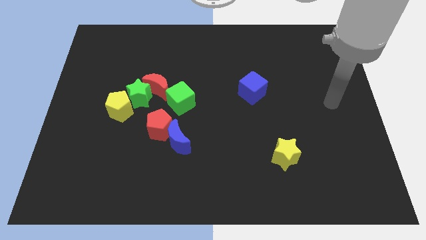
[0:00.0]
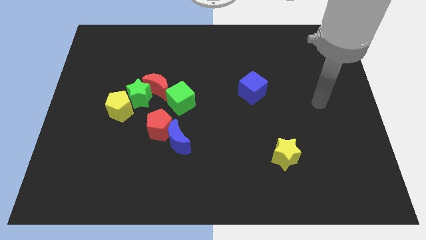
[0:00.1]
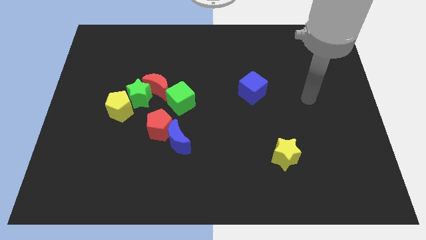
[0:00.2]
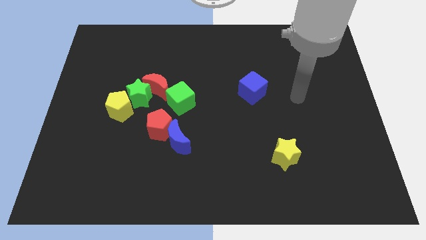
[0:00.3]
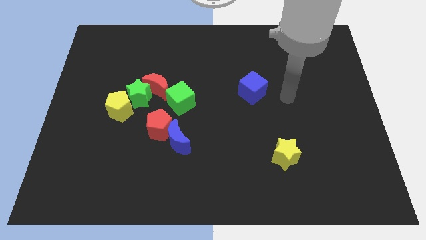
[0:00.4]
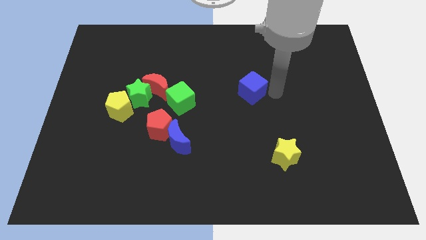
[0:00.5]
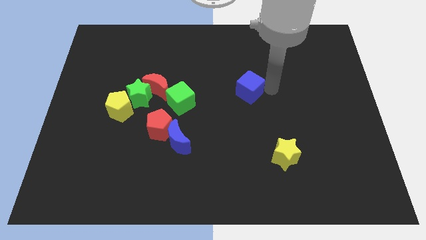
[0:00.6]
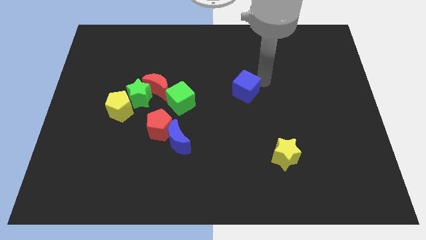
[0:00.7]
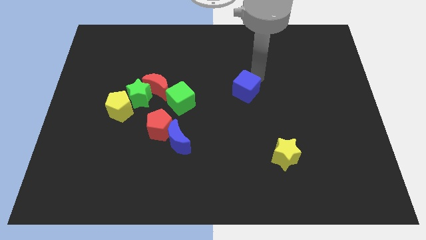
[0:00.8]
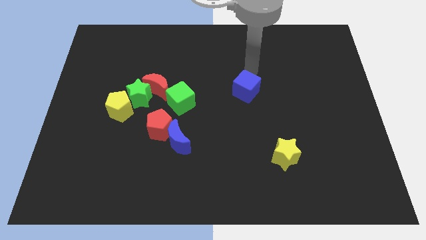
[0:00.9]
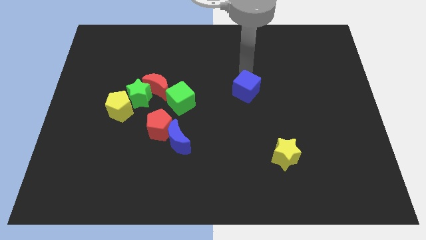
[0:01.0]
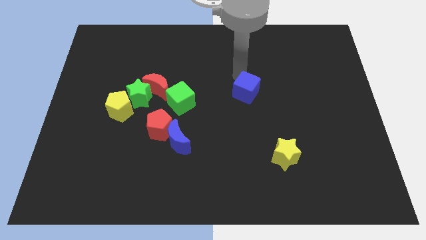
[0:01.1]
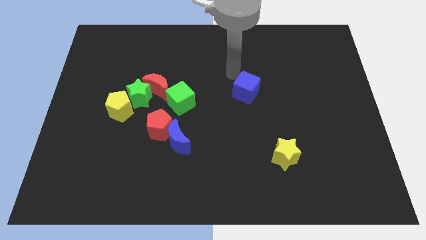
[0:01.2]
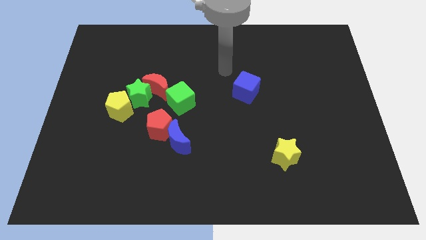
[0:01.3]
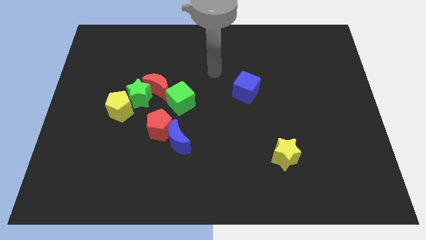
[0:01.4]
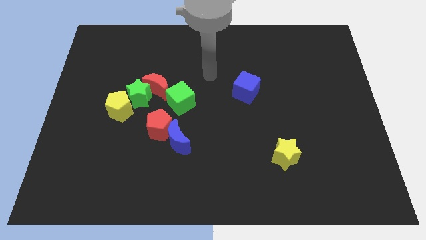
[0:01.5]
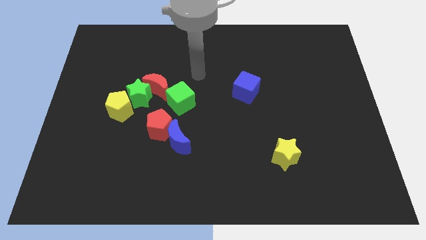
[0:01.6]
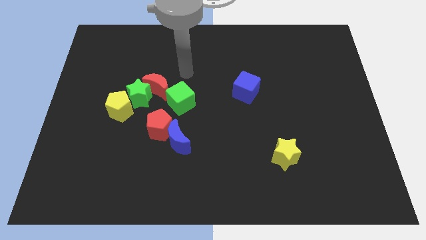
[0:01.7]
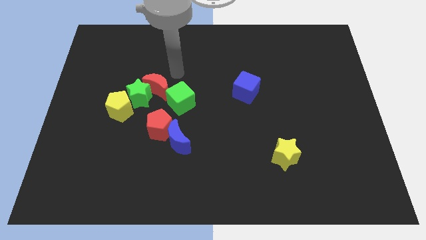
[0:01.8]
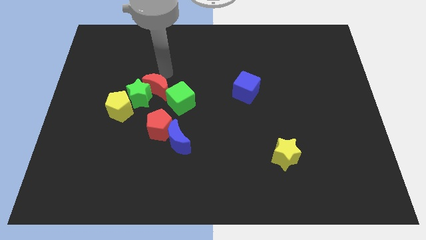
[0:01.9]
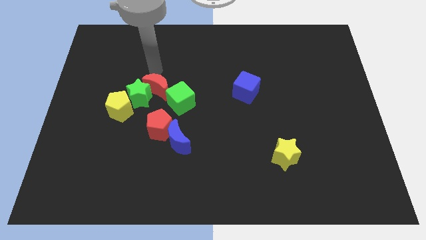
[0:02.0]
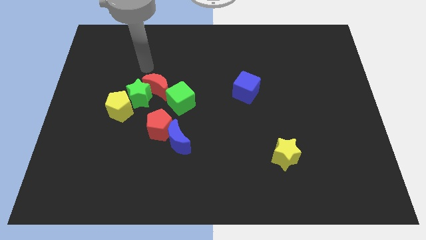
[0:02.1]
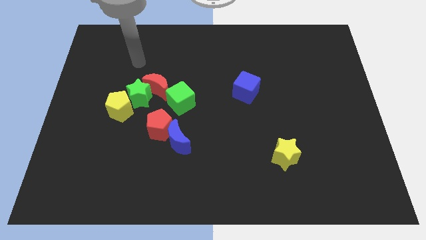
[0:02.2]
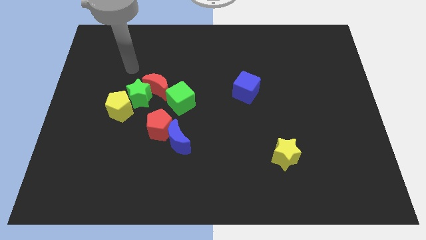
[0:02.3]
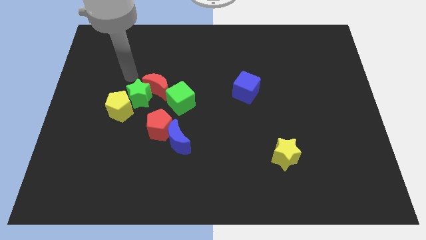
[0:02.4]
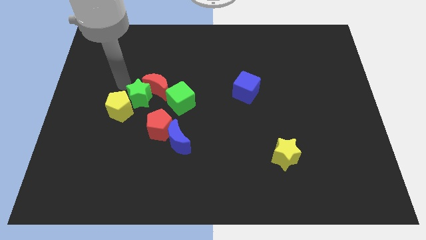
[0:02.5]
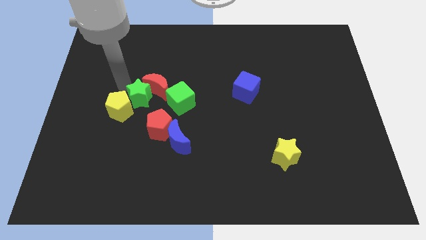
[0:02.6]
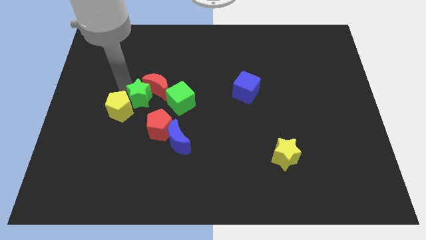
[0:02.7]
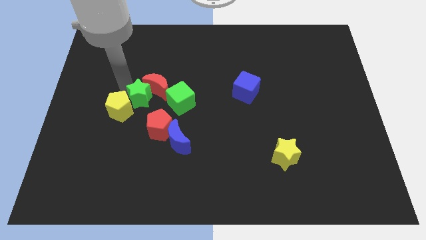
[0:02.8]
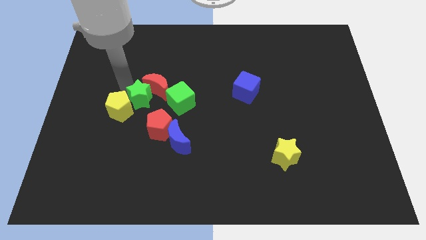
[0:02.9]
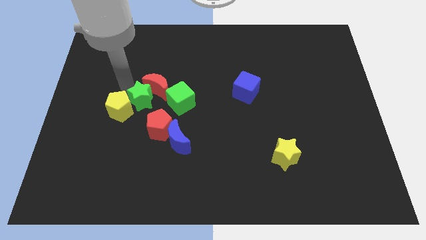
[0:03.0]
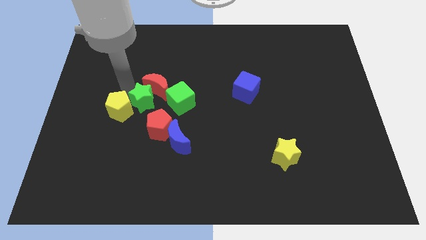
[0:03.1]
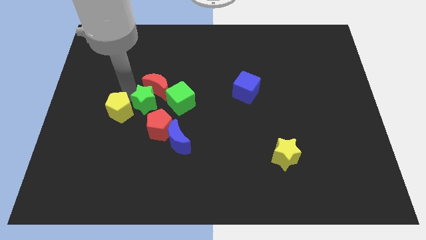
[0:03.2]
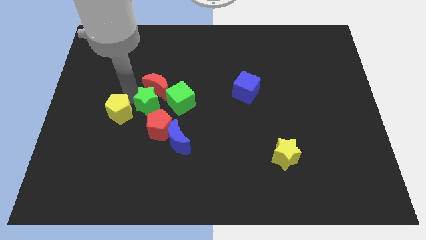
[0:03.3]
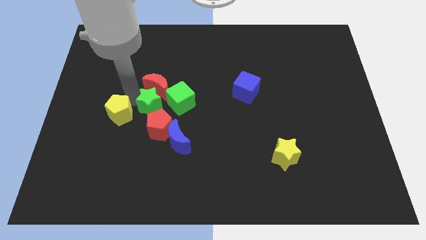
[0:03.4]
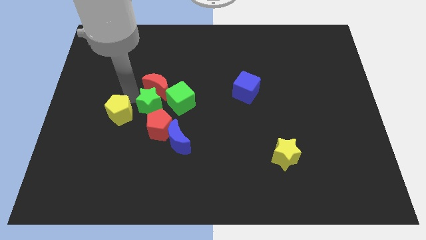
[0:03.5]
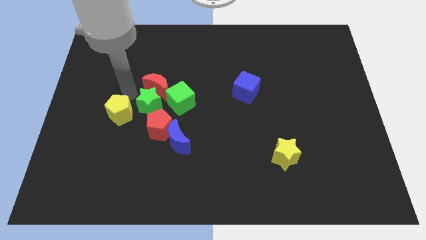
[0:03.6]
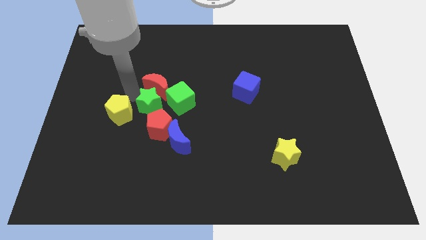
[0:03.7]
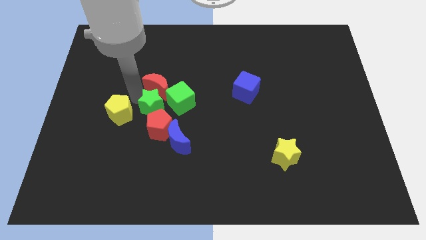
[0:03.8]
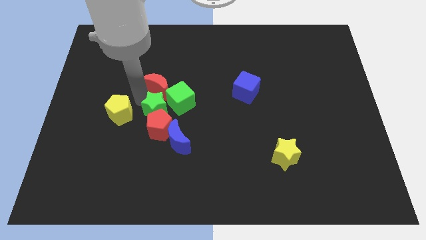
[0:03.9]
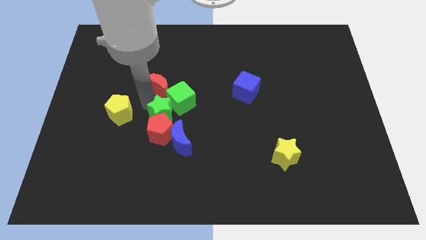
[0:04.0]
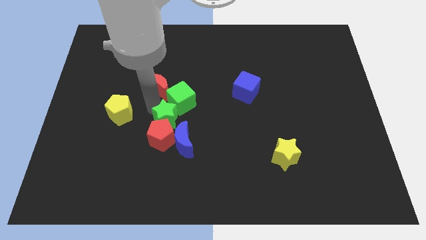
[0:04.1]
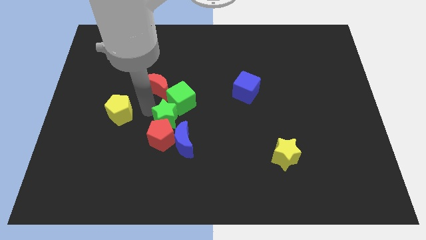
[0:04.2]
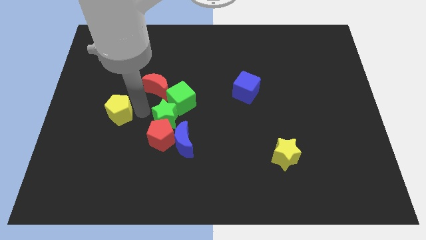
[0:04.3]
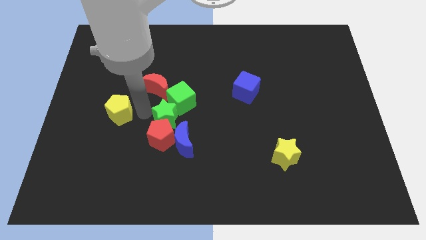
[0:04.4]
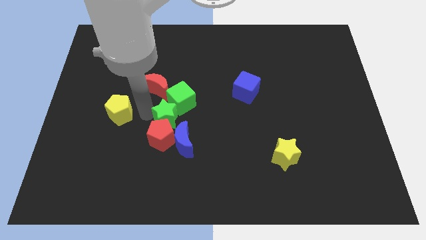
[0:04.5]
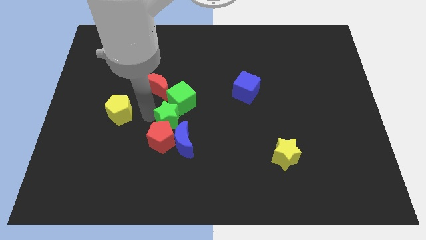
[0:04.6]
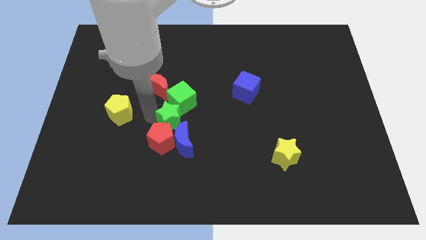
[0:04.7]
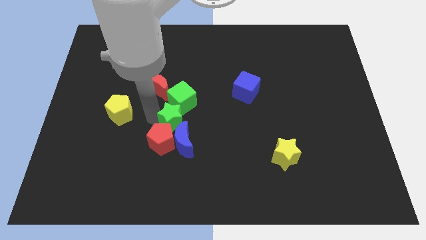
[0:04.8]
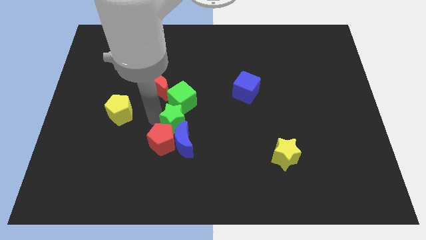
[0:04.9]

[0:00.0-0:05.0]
push the green star close to the blue moon

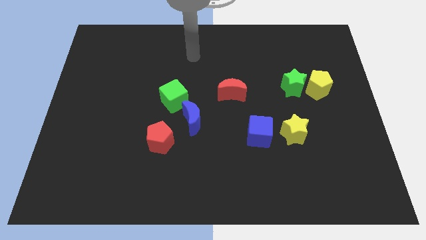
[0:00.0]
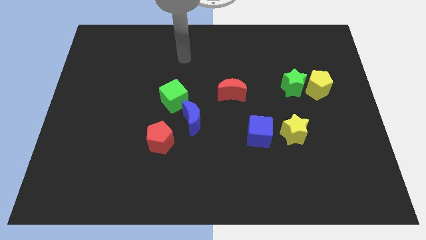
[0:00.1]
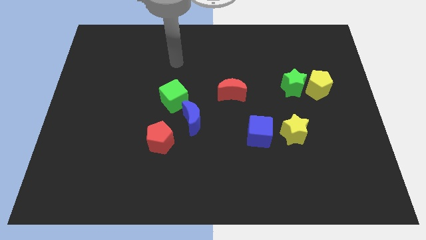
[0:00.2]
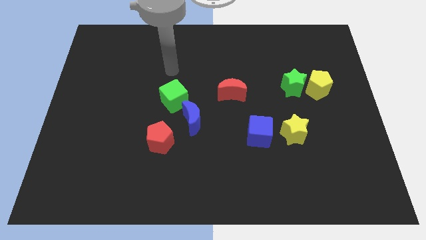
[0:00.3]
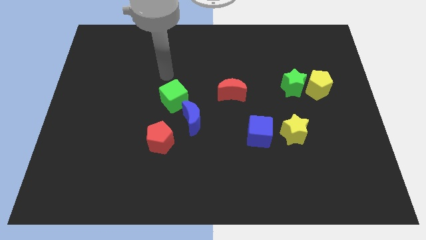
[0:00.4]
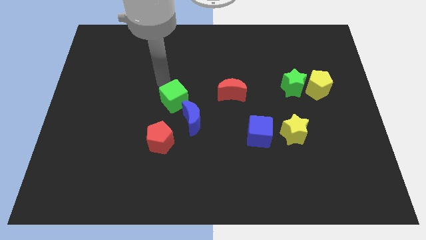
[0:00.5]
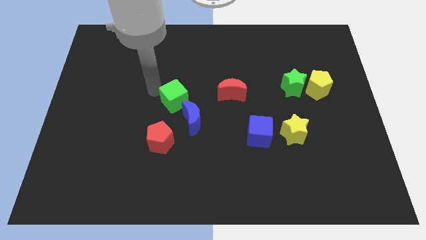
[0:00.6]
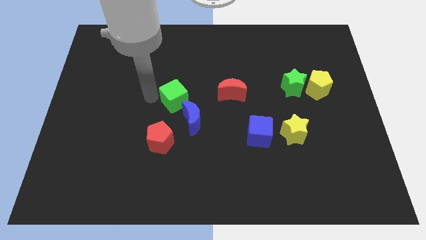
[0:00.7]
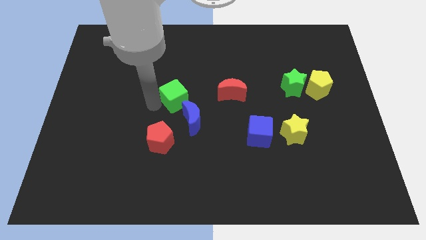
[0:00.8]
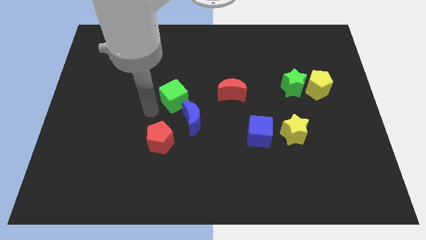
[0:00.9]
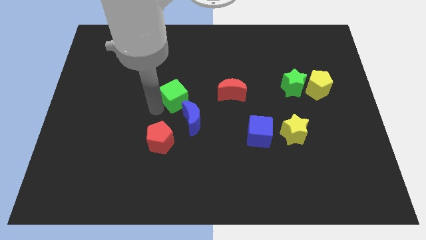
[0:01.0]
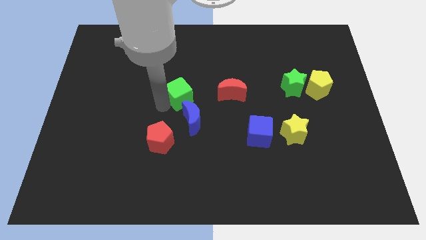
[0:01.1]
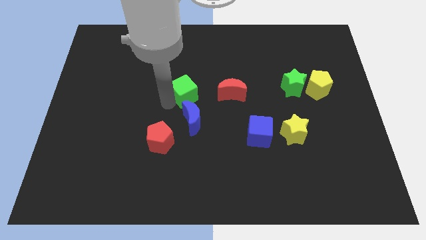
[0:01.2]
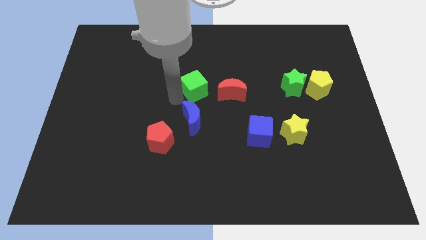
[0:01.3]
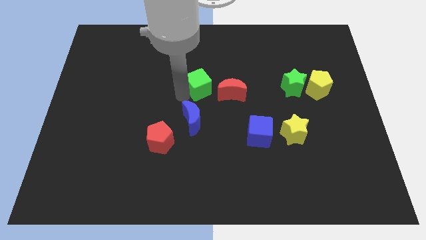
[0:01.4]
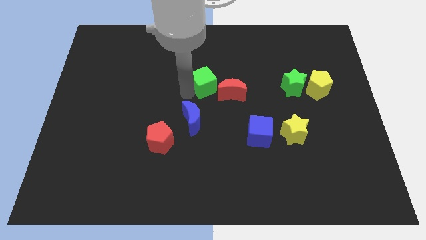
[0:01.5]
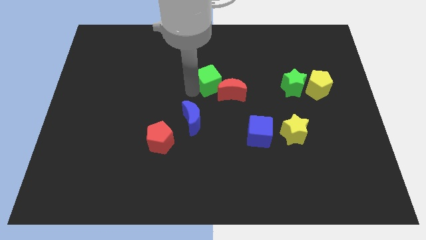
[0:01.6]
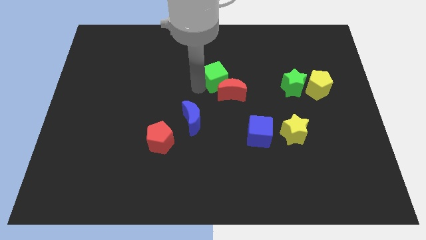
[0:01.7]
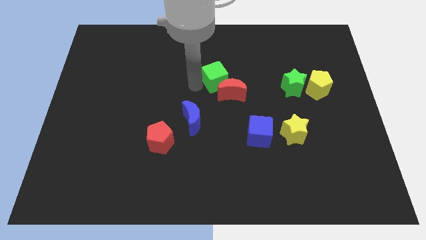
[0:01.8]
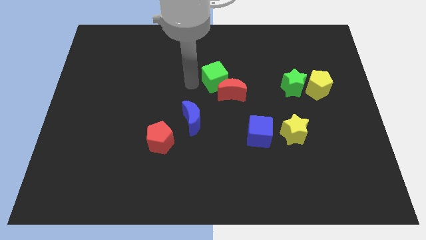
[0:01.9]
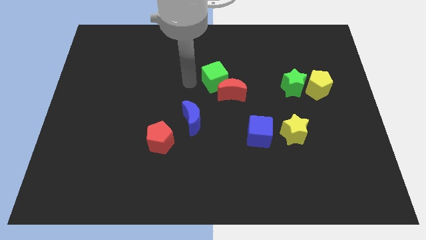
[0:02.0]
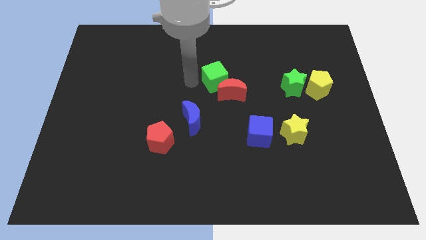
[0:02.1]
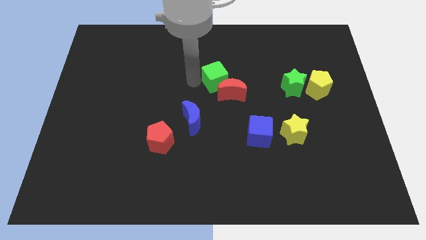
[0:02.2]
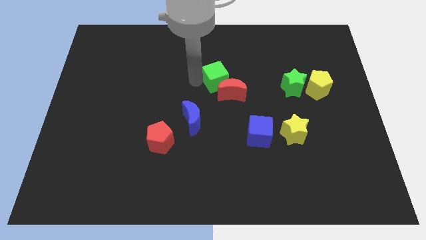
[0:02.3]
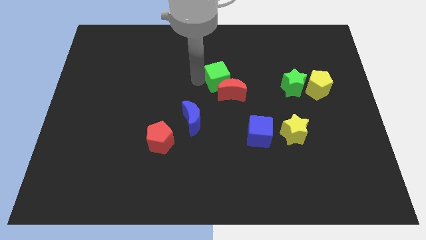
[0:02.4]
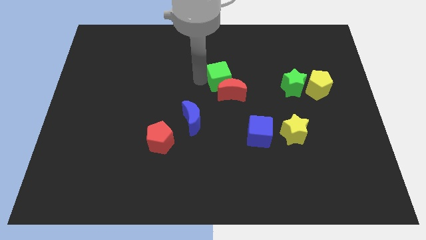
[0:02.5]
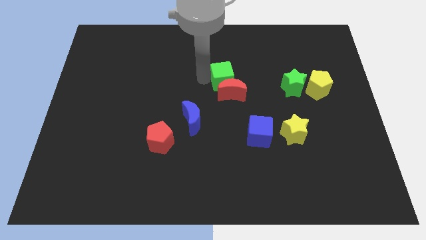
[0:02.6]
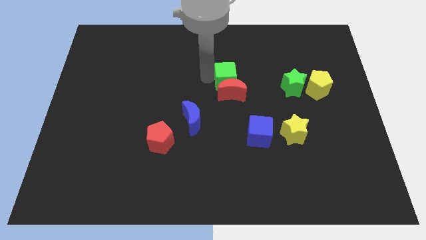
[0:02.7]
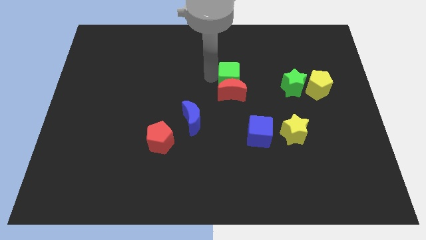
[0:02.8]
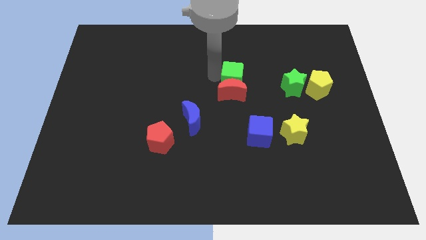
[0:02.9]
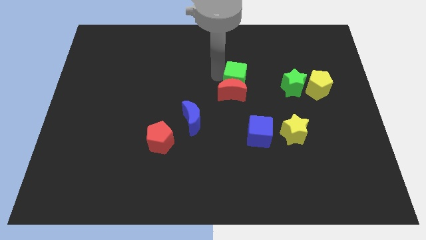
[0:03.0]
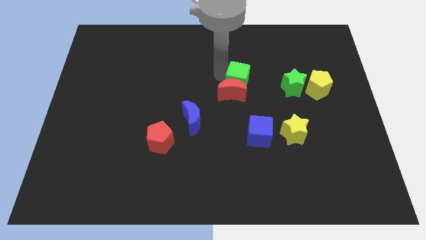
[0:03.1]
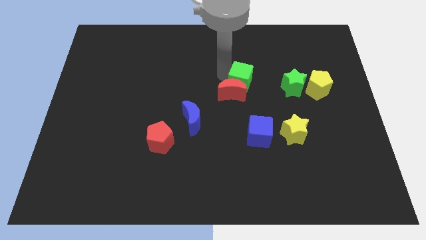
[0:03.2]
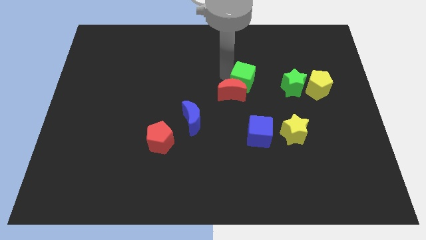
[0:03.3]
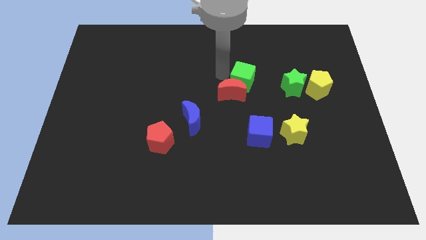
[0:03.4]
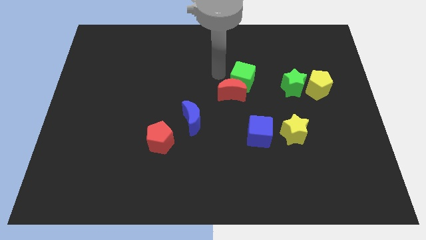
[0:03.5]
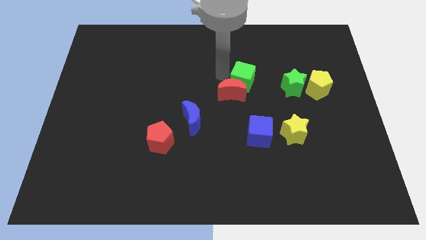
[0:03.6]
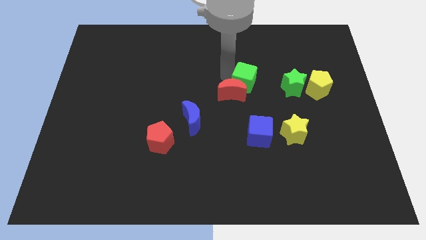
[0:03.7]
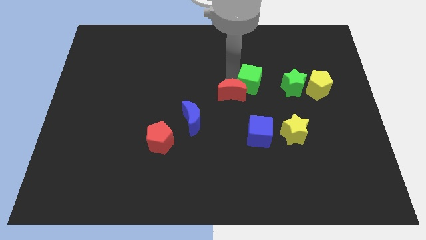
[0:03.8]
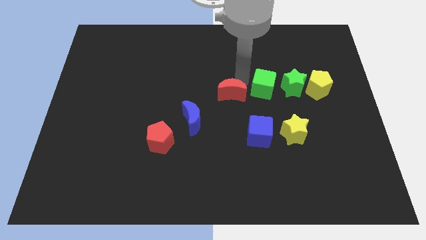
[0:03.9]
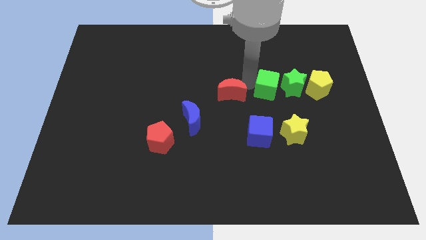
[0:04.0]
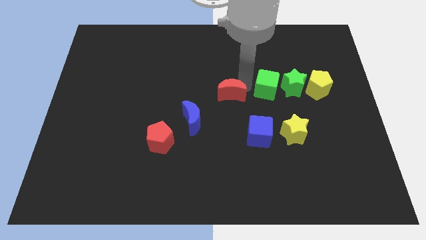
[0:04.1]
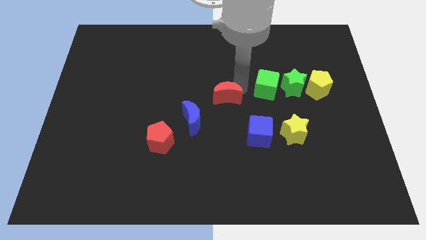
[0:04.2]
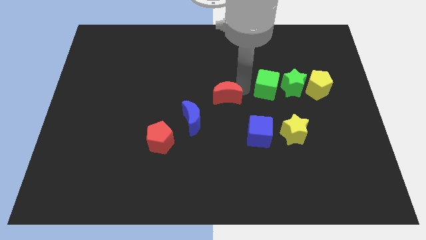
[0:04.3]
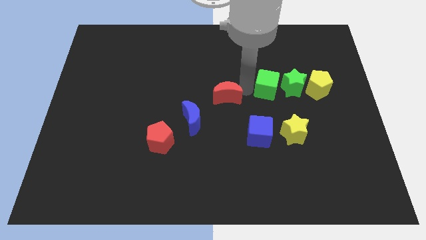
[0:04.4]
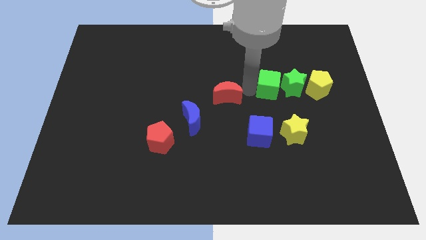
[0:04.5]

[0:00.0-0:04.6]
push the green cube close to the green star
